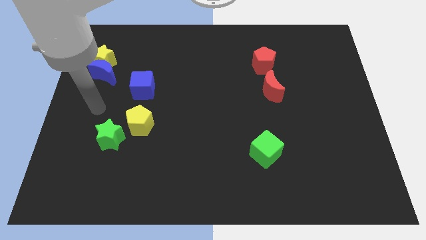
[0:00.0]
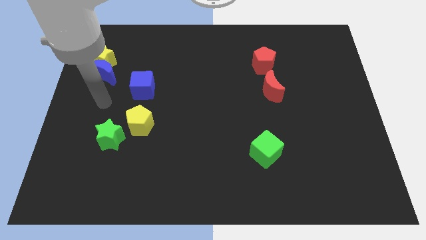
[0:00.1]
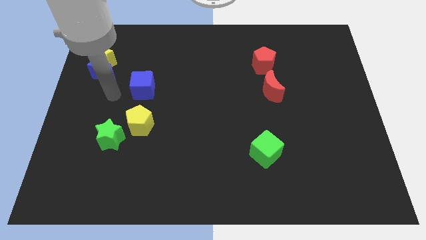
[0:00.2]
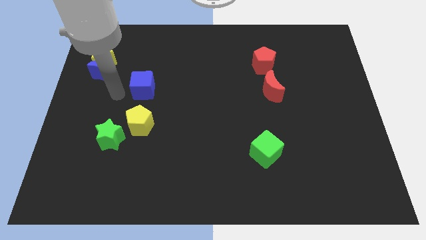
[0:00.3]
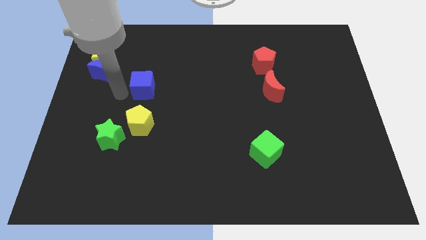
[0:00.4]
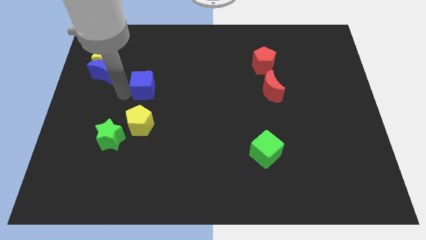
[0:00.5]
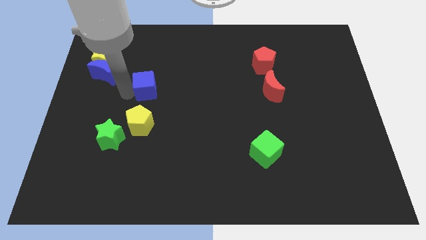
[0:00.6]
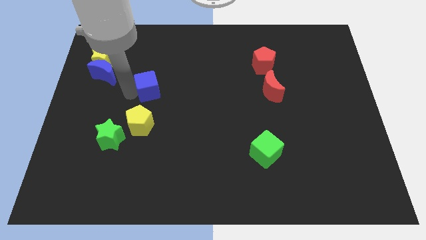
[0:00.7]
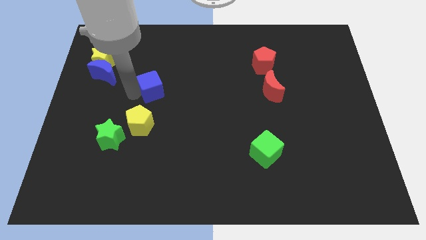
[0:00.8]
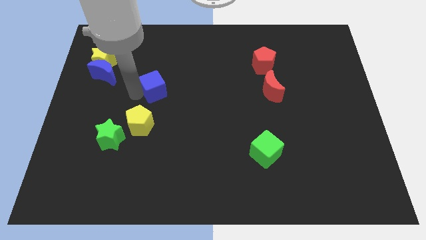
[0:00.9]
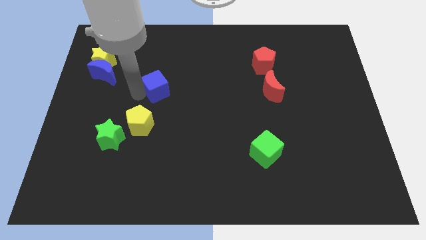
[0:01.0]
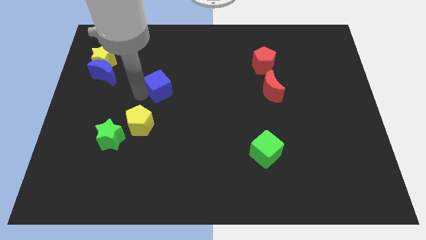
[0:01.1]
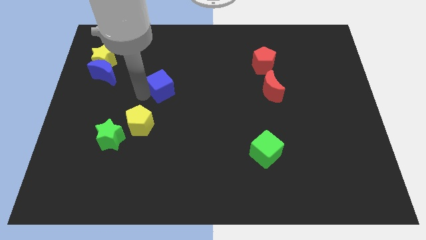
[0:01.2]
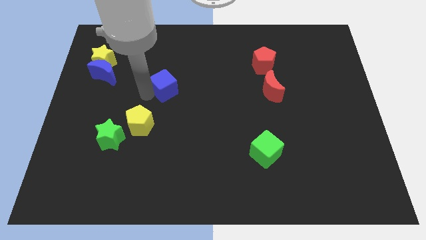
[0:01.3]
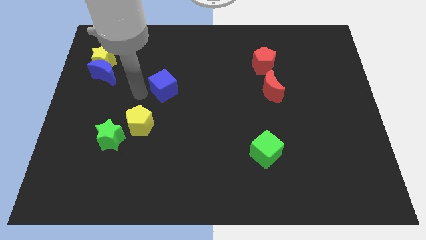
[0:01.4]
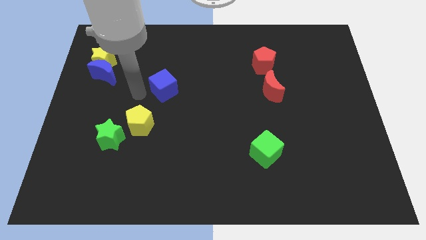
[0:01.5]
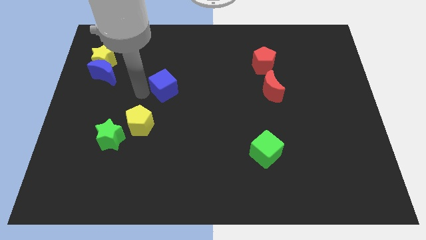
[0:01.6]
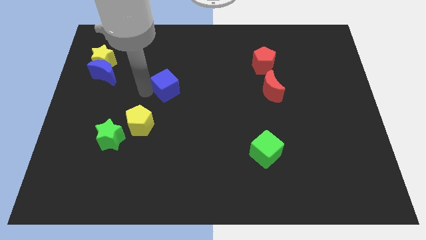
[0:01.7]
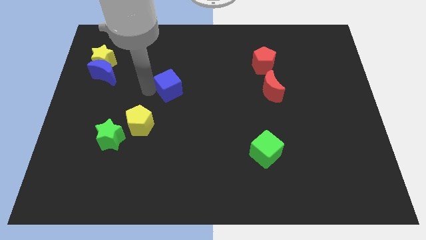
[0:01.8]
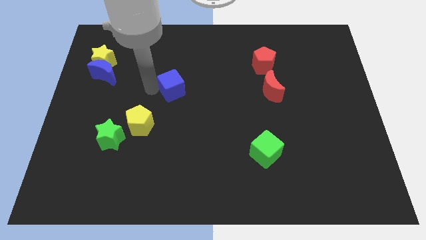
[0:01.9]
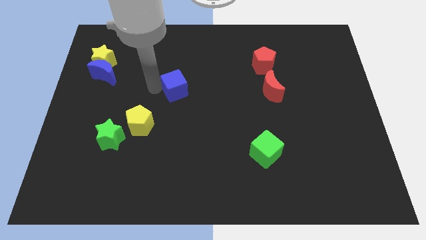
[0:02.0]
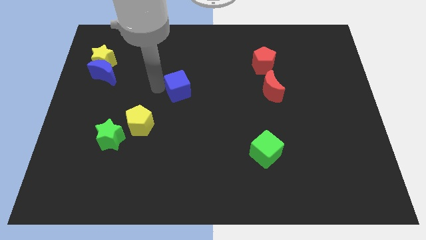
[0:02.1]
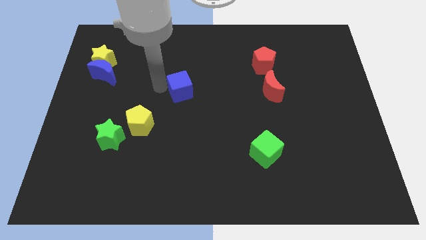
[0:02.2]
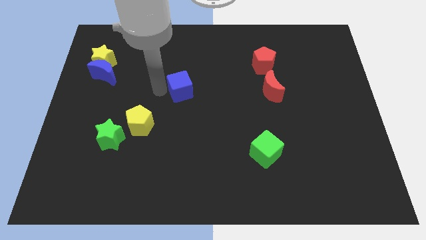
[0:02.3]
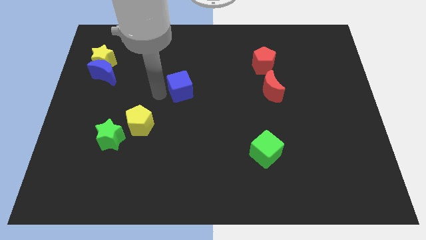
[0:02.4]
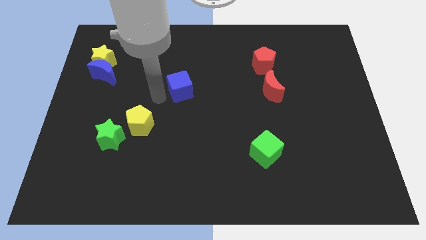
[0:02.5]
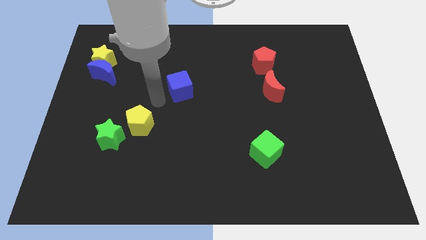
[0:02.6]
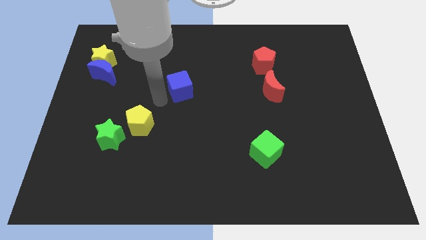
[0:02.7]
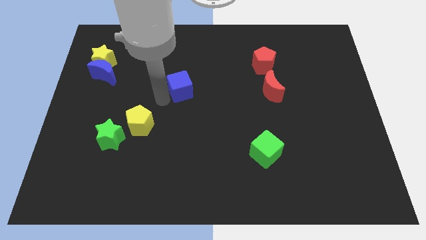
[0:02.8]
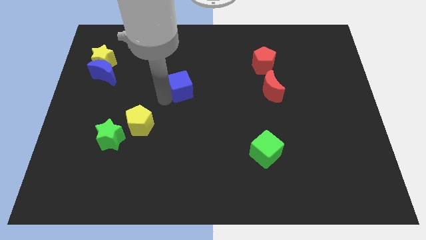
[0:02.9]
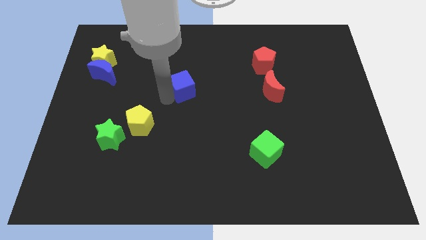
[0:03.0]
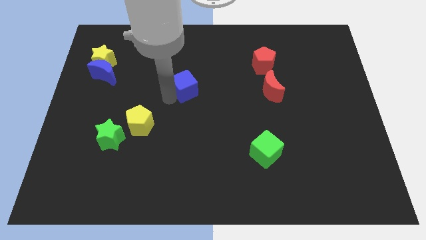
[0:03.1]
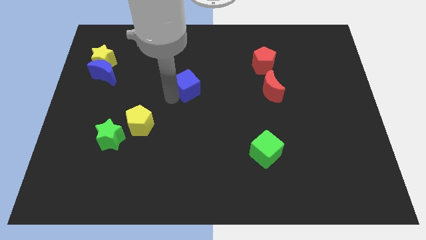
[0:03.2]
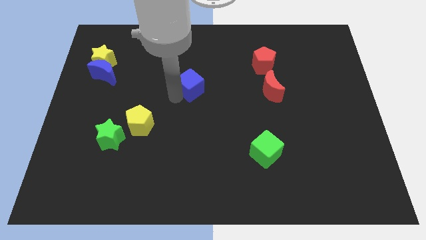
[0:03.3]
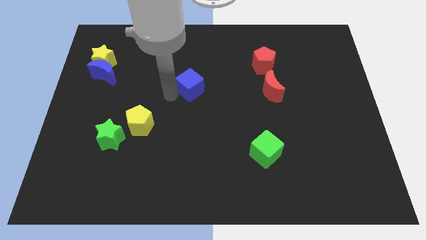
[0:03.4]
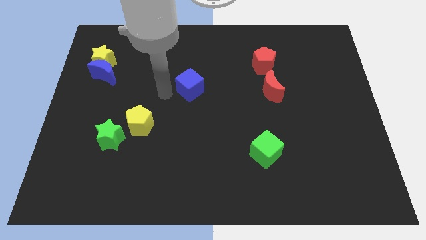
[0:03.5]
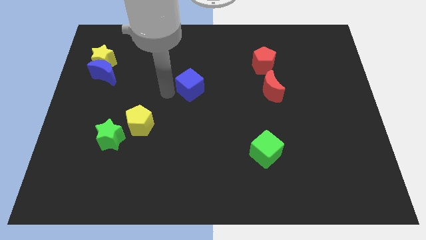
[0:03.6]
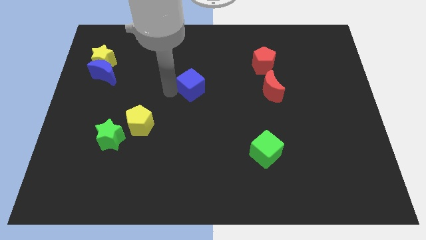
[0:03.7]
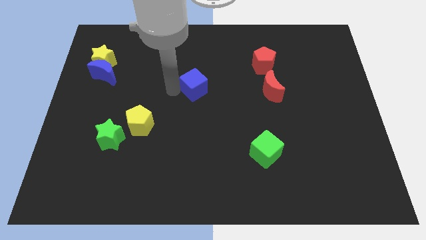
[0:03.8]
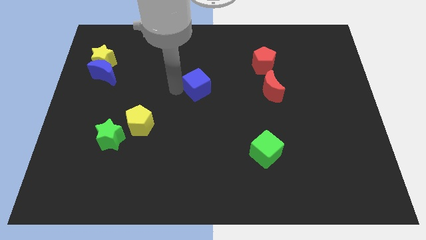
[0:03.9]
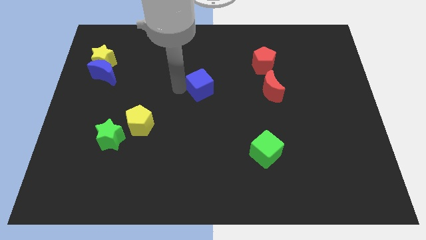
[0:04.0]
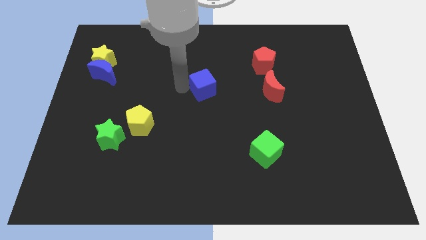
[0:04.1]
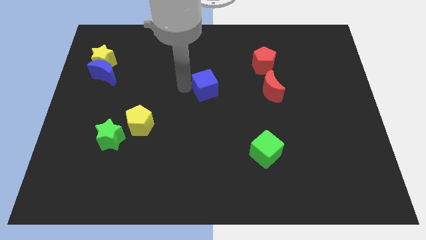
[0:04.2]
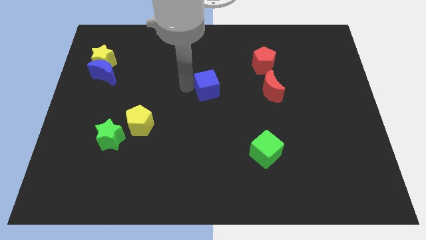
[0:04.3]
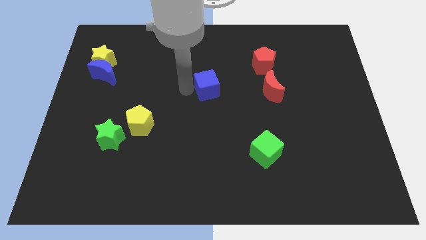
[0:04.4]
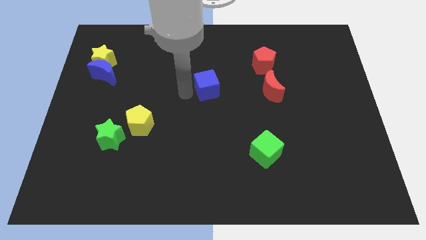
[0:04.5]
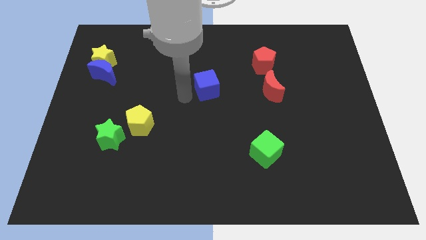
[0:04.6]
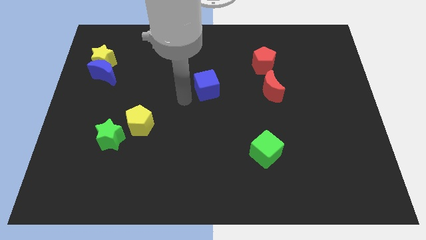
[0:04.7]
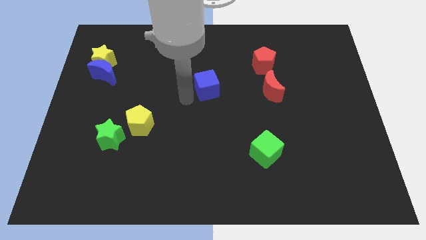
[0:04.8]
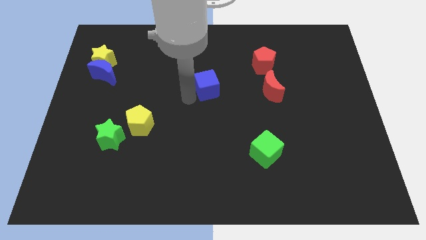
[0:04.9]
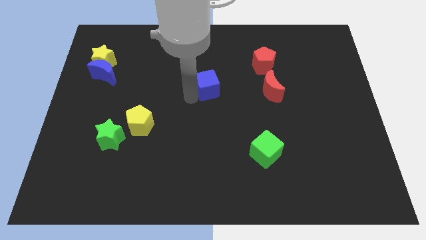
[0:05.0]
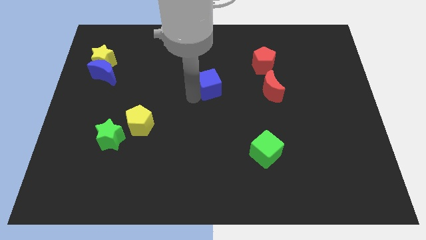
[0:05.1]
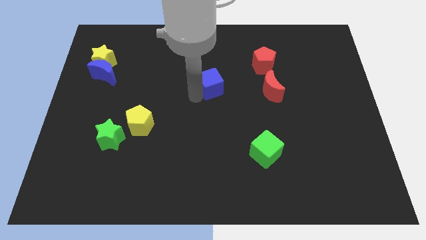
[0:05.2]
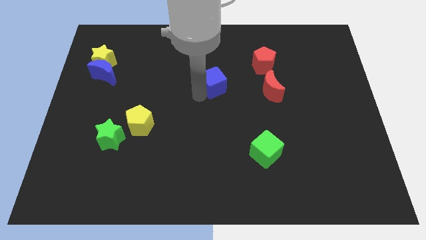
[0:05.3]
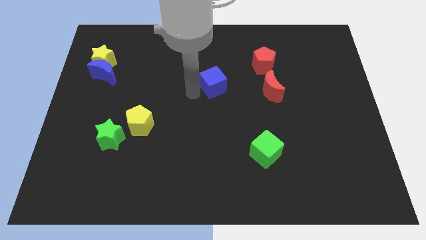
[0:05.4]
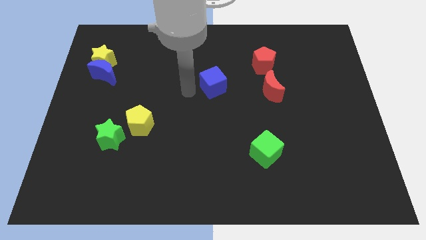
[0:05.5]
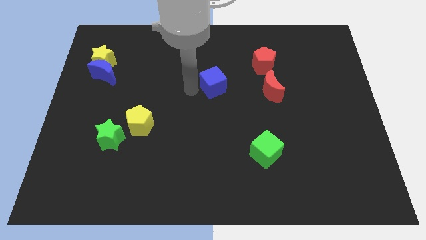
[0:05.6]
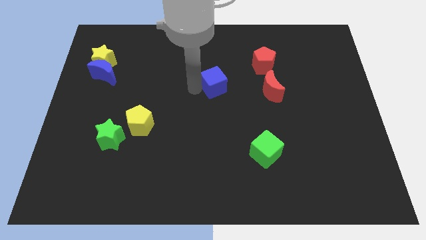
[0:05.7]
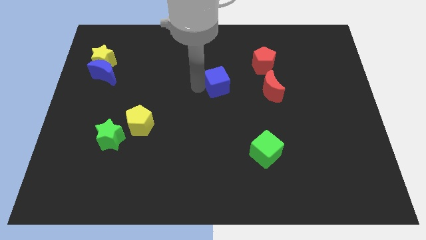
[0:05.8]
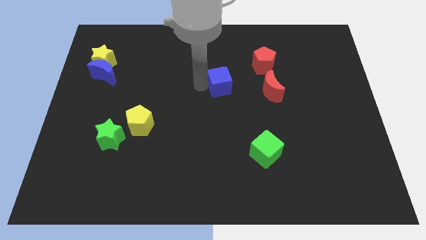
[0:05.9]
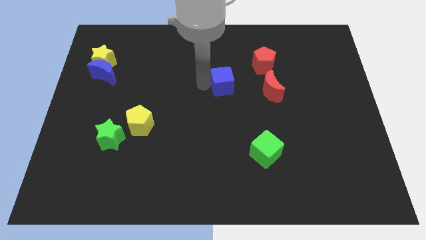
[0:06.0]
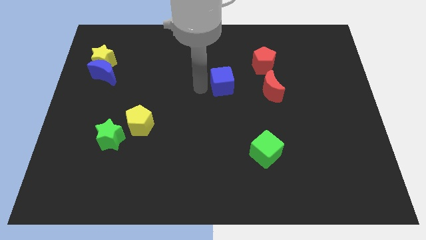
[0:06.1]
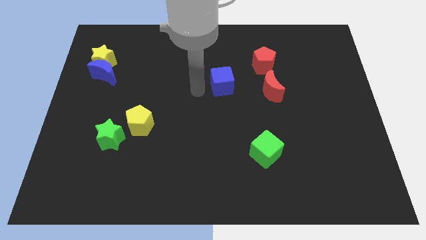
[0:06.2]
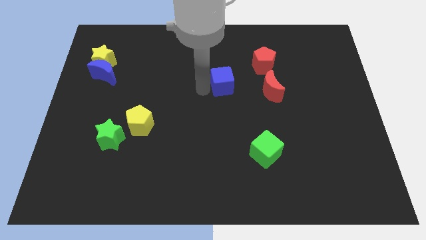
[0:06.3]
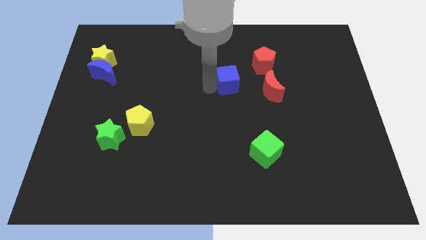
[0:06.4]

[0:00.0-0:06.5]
move the blue cube to the bottom left of the red pentagon

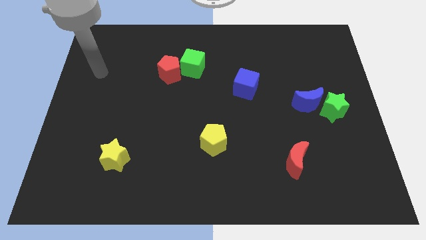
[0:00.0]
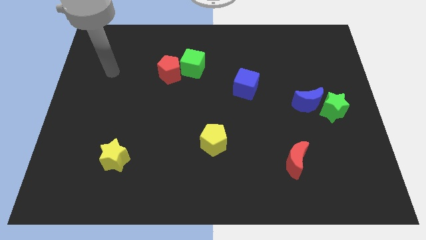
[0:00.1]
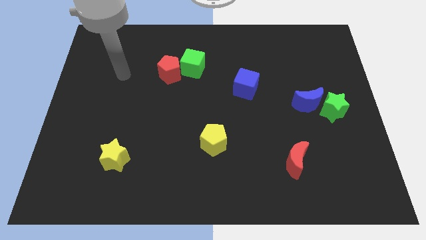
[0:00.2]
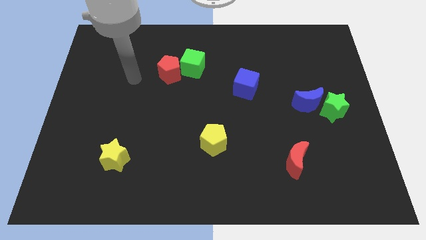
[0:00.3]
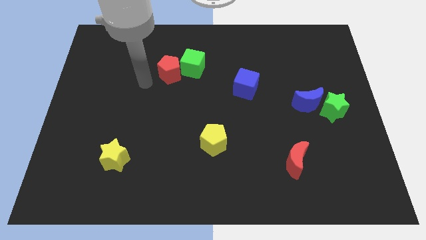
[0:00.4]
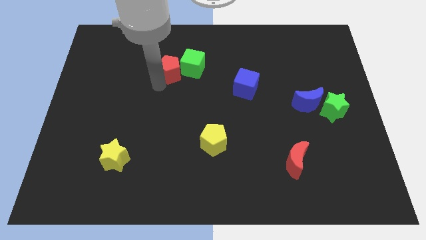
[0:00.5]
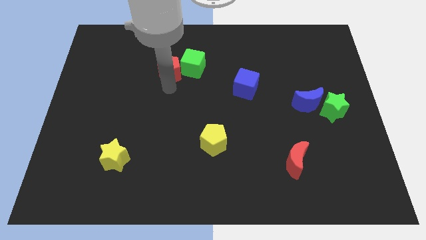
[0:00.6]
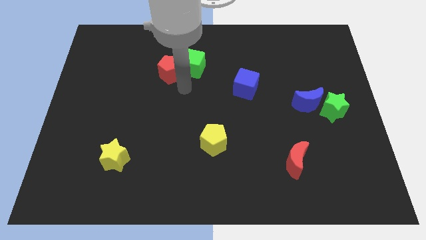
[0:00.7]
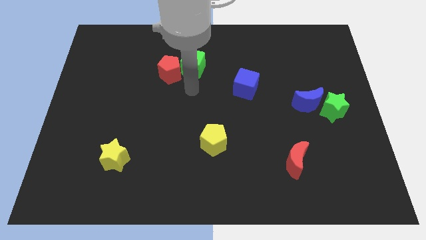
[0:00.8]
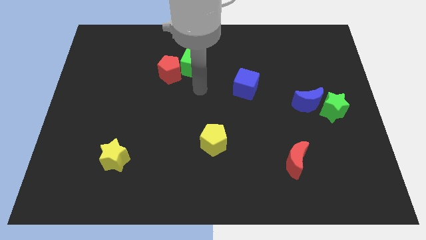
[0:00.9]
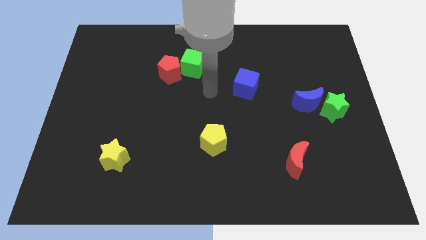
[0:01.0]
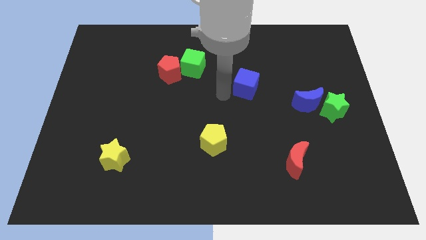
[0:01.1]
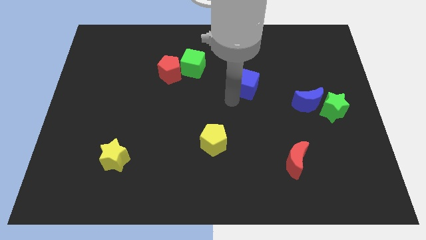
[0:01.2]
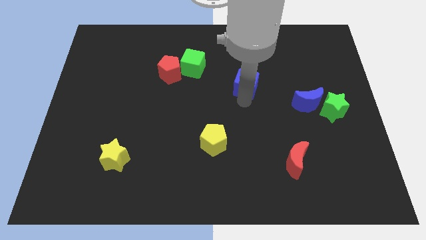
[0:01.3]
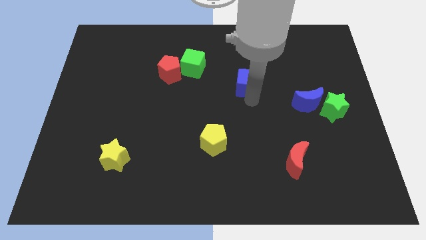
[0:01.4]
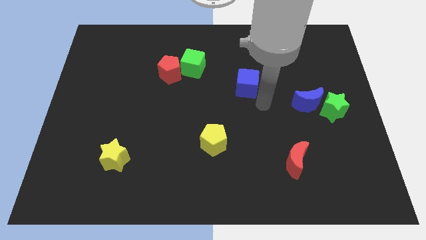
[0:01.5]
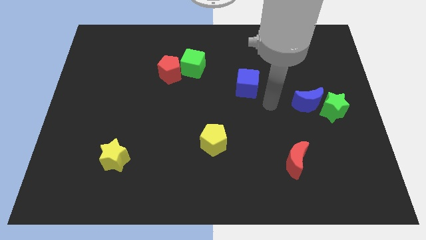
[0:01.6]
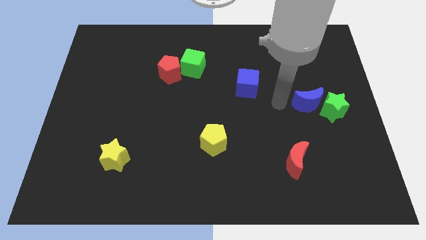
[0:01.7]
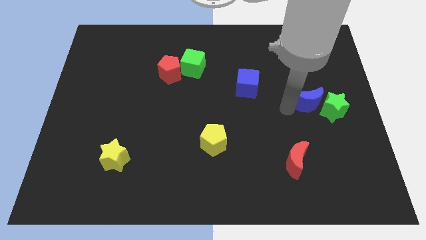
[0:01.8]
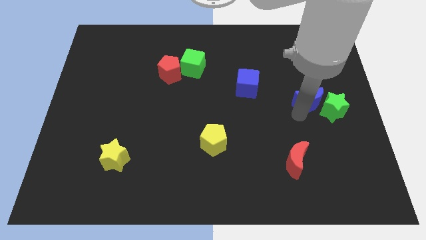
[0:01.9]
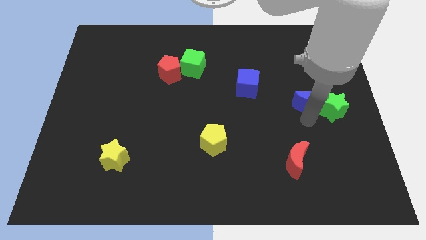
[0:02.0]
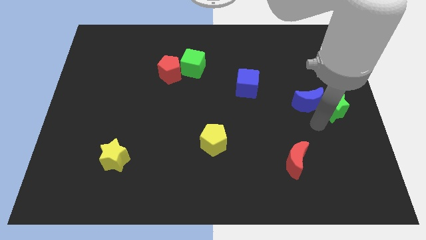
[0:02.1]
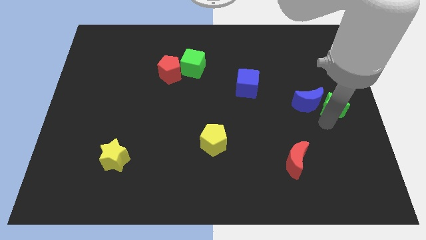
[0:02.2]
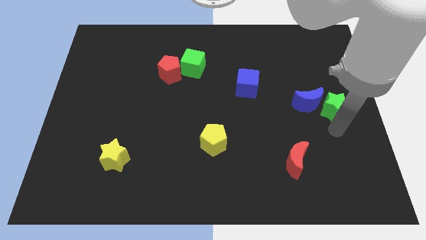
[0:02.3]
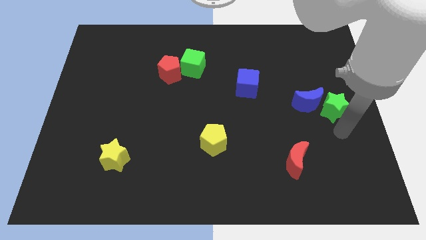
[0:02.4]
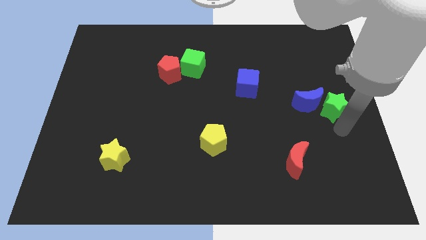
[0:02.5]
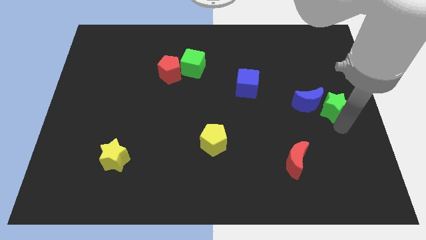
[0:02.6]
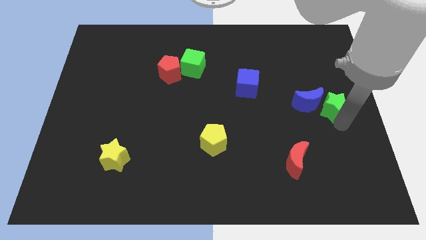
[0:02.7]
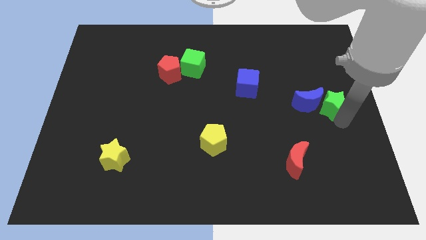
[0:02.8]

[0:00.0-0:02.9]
slide the green star to the top right of the blue moon
